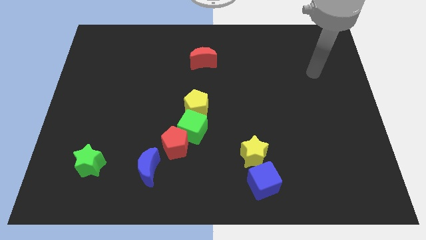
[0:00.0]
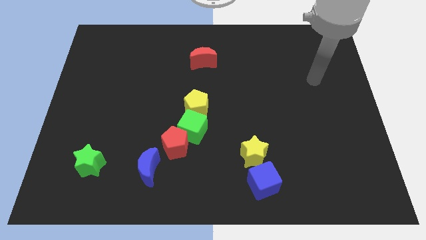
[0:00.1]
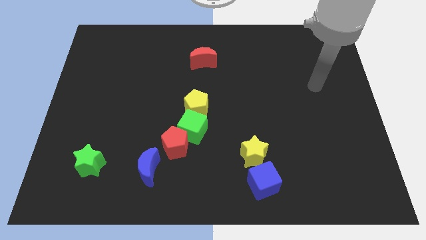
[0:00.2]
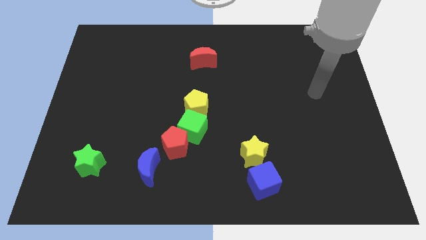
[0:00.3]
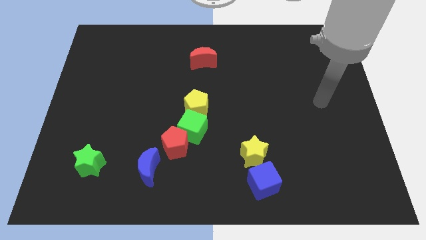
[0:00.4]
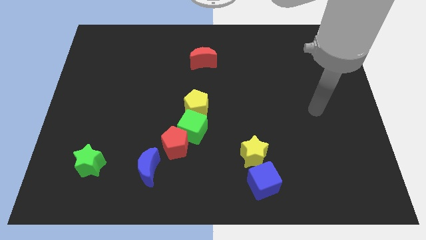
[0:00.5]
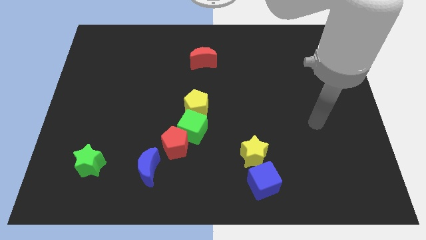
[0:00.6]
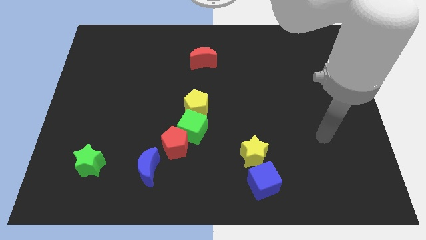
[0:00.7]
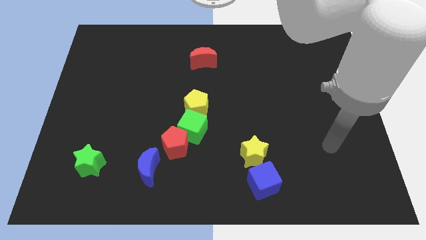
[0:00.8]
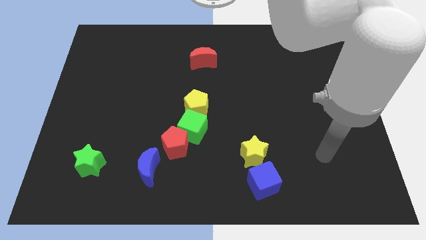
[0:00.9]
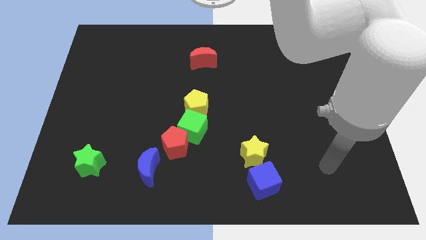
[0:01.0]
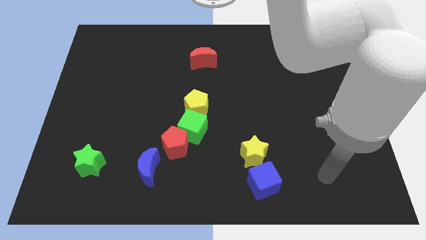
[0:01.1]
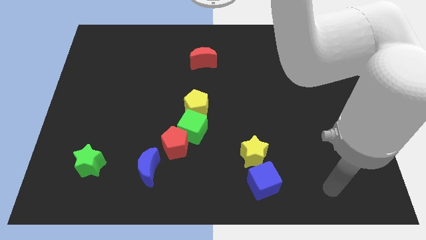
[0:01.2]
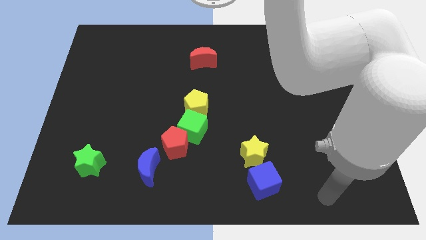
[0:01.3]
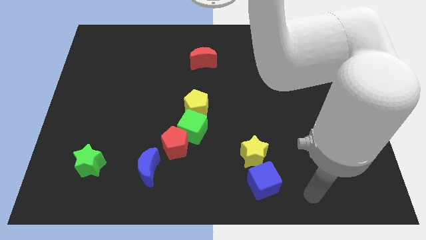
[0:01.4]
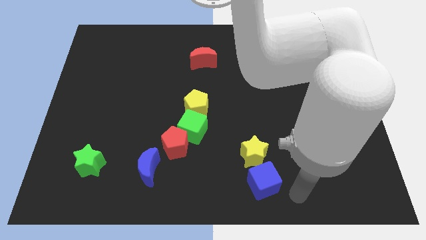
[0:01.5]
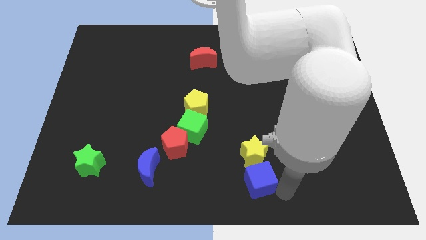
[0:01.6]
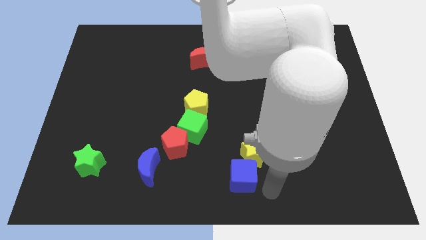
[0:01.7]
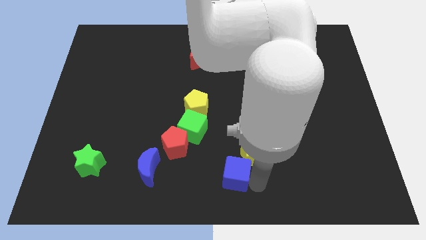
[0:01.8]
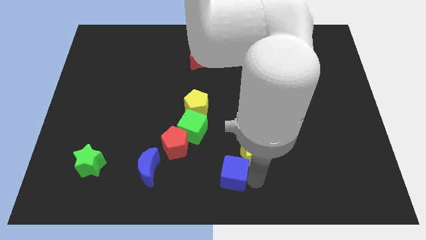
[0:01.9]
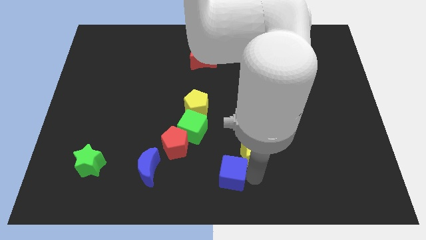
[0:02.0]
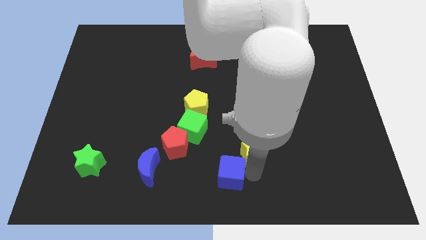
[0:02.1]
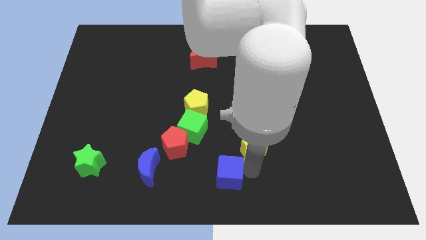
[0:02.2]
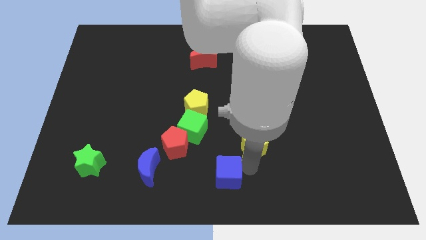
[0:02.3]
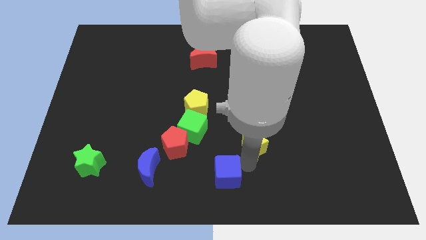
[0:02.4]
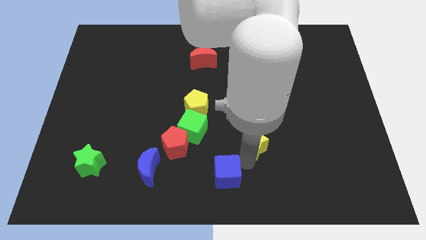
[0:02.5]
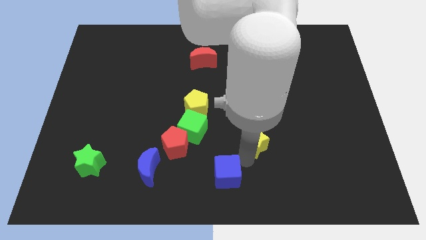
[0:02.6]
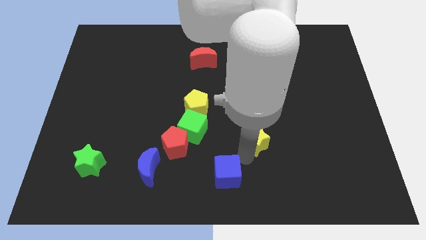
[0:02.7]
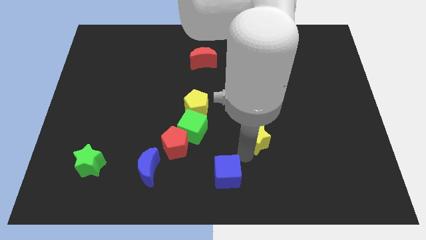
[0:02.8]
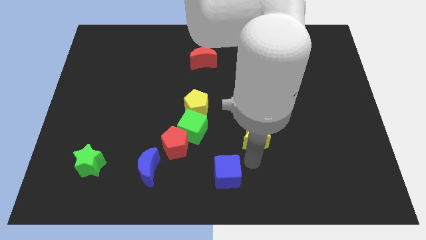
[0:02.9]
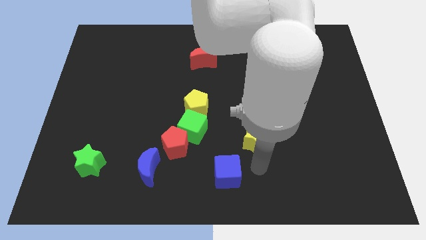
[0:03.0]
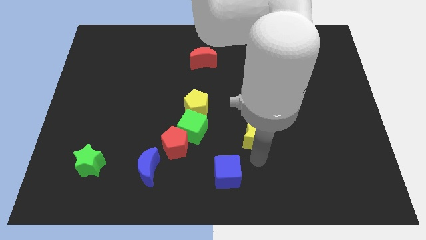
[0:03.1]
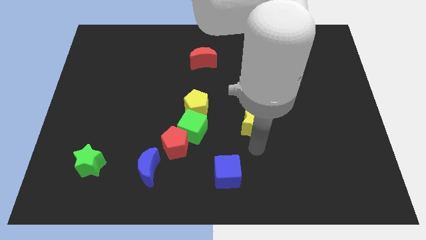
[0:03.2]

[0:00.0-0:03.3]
slightly push the yellow star upwards

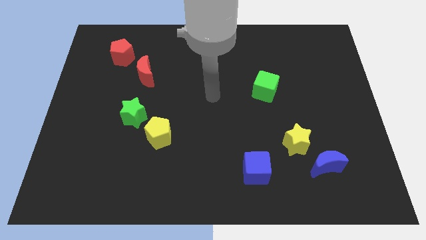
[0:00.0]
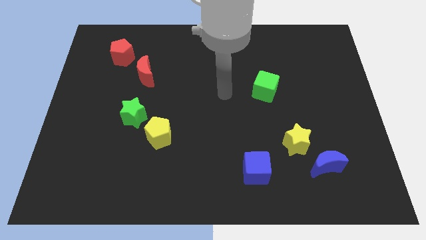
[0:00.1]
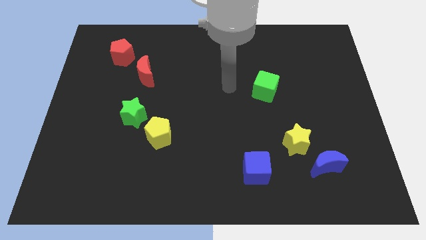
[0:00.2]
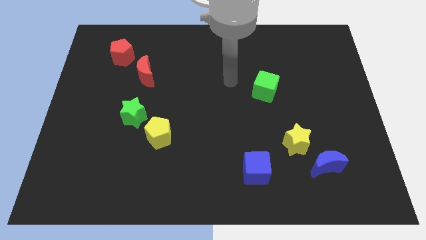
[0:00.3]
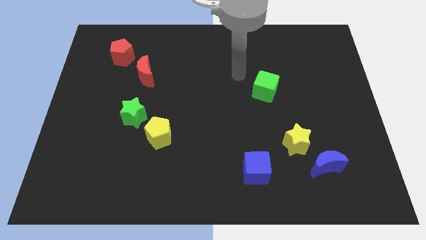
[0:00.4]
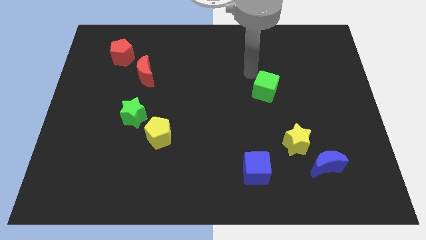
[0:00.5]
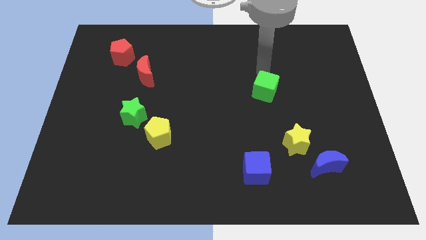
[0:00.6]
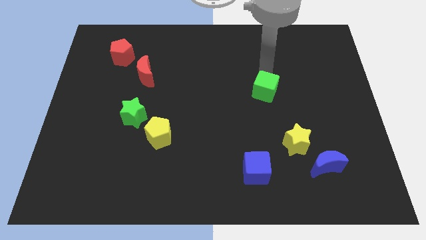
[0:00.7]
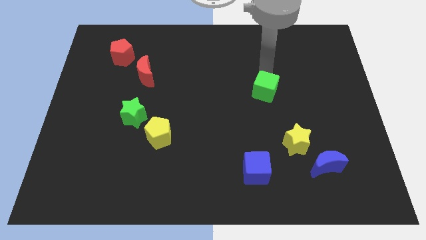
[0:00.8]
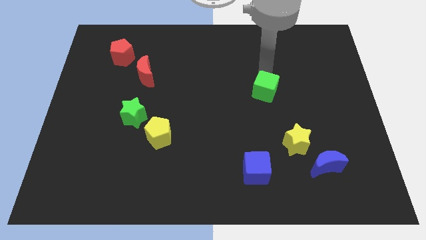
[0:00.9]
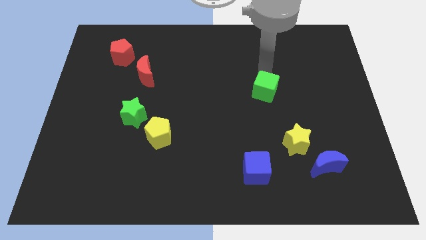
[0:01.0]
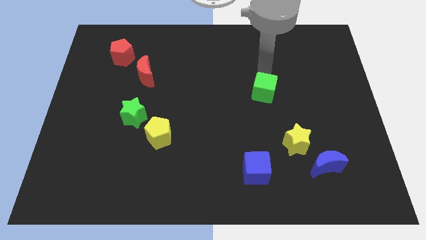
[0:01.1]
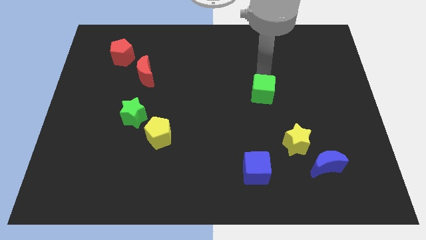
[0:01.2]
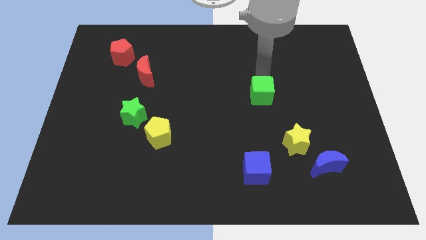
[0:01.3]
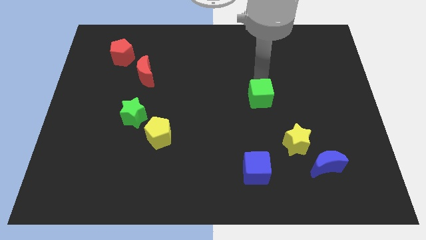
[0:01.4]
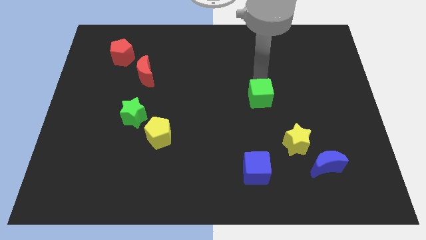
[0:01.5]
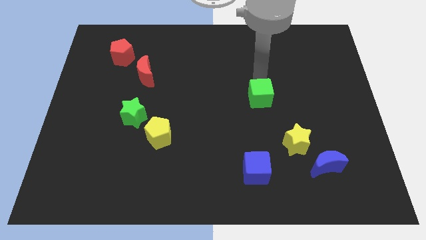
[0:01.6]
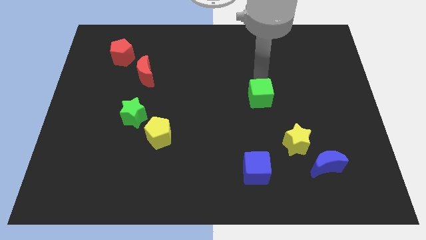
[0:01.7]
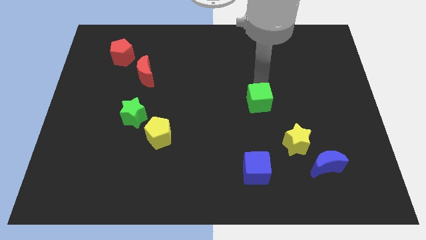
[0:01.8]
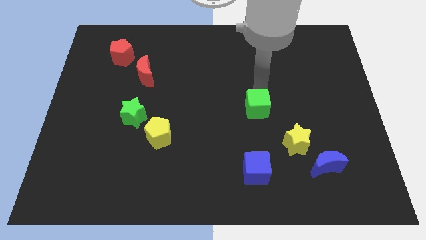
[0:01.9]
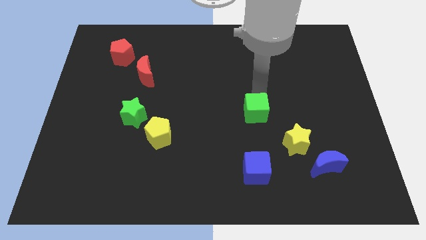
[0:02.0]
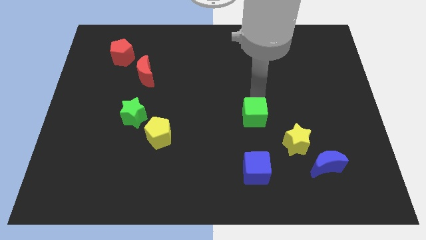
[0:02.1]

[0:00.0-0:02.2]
move the green cube down a bit

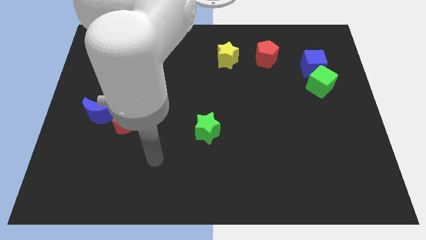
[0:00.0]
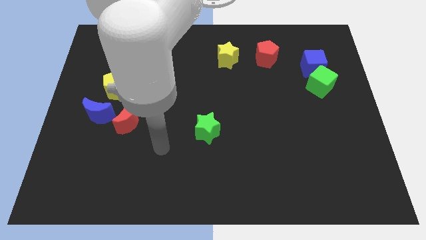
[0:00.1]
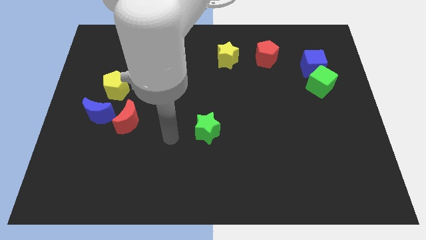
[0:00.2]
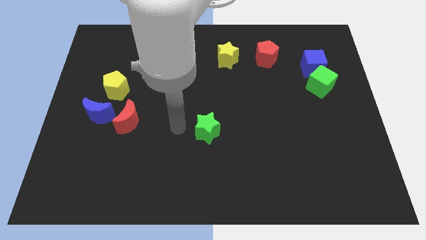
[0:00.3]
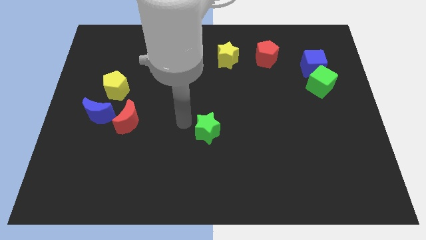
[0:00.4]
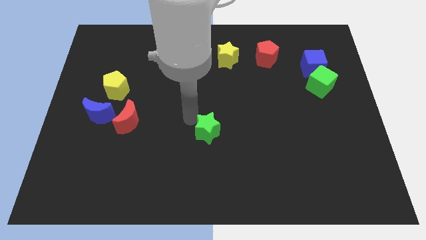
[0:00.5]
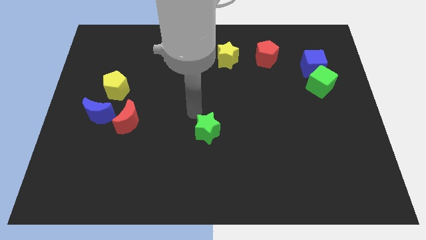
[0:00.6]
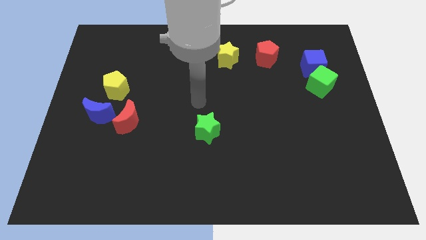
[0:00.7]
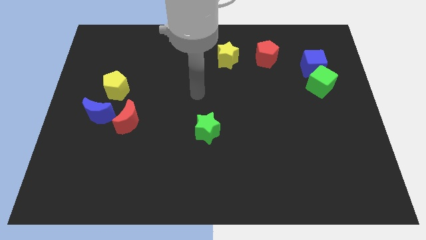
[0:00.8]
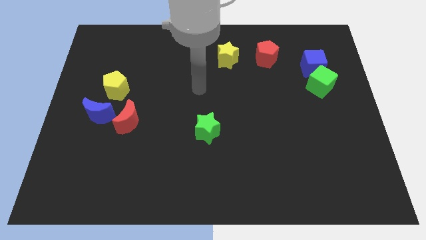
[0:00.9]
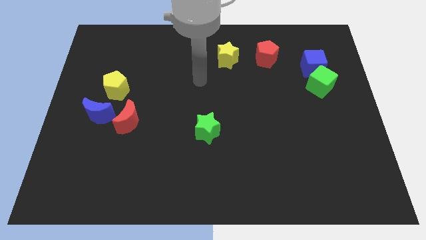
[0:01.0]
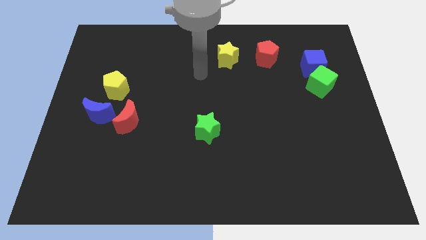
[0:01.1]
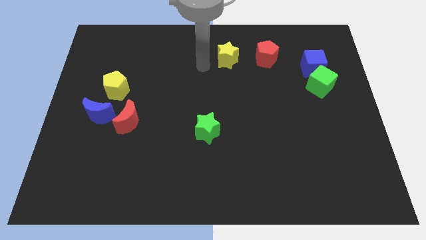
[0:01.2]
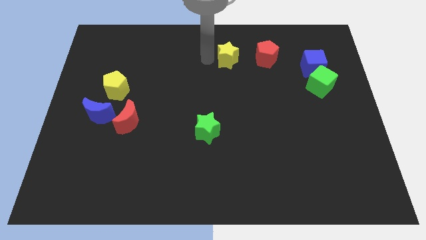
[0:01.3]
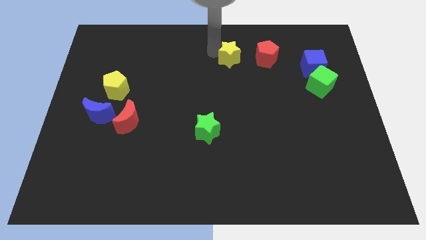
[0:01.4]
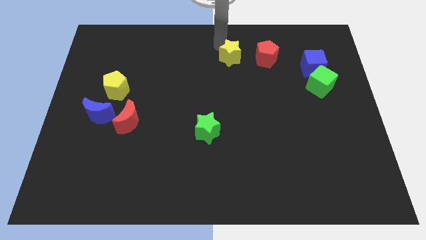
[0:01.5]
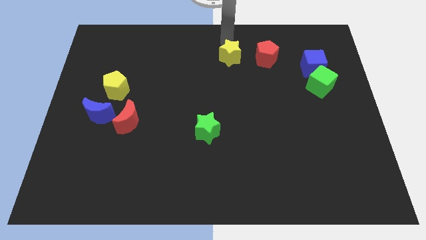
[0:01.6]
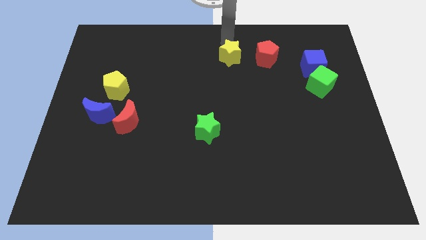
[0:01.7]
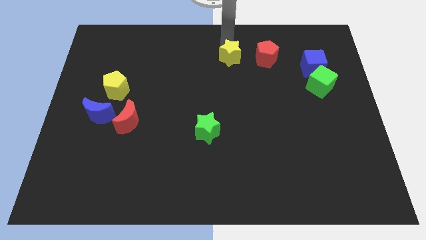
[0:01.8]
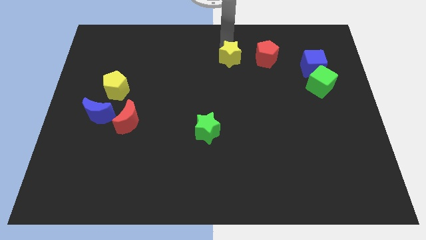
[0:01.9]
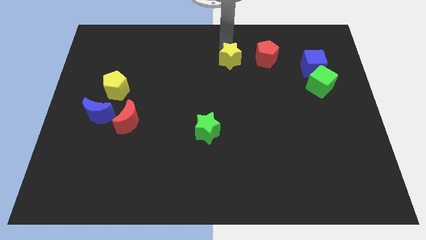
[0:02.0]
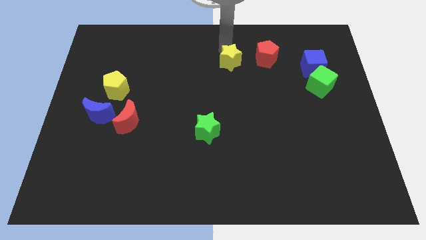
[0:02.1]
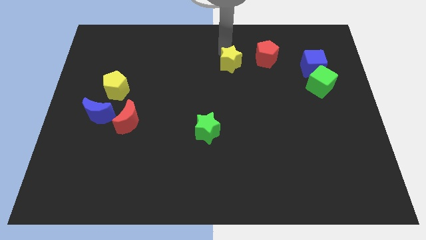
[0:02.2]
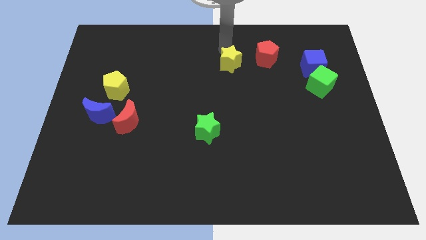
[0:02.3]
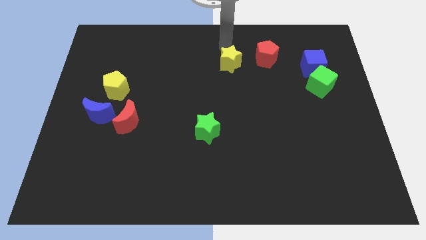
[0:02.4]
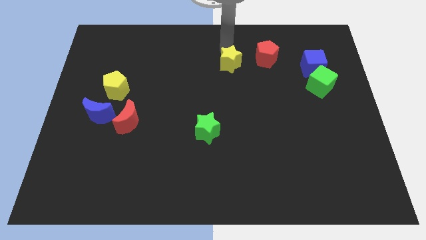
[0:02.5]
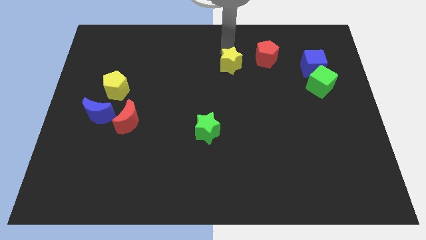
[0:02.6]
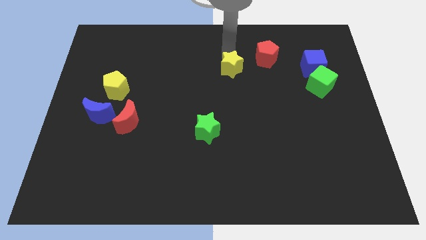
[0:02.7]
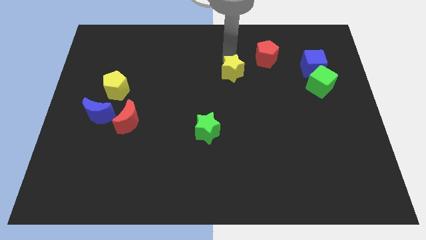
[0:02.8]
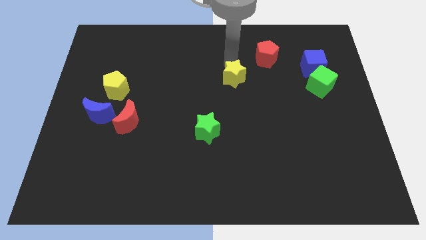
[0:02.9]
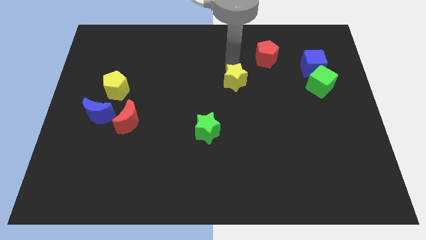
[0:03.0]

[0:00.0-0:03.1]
push the yellow star downwards a little
